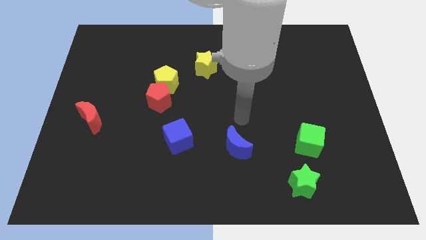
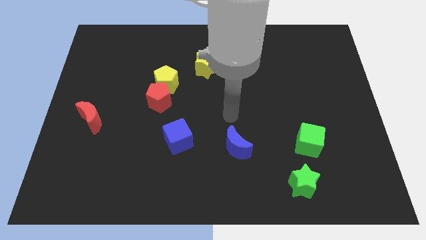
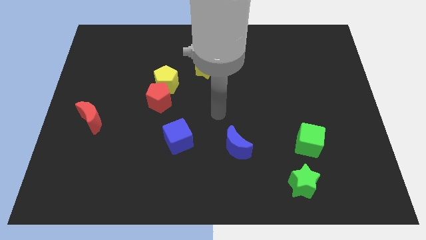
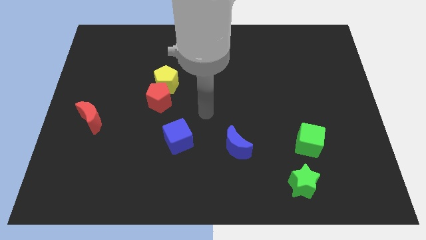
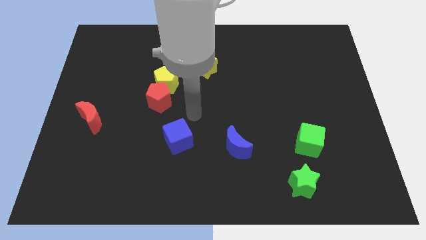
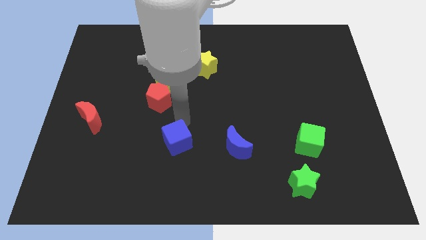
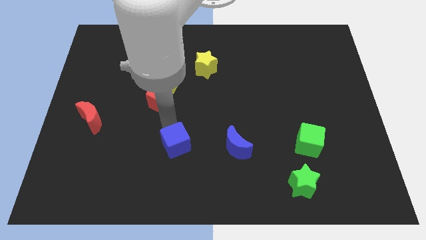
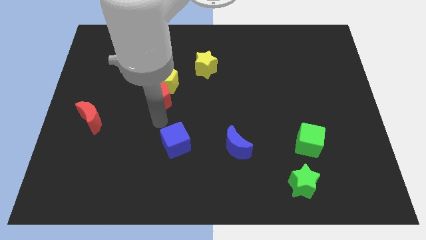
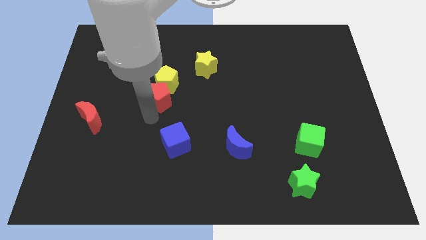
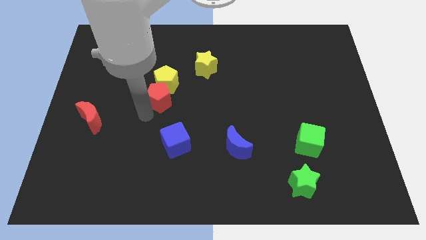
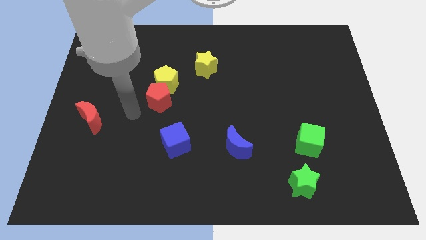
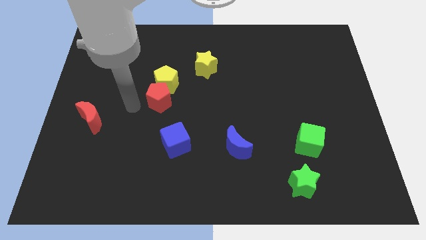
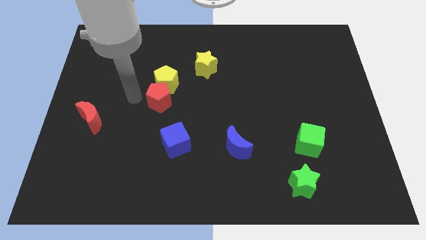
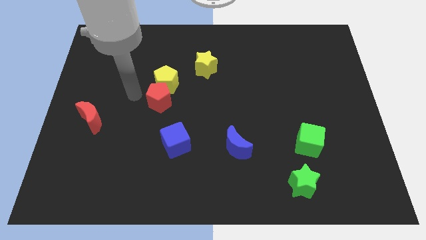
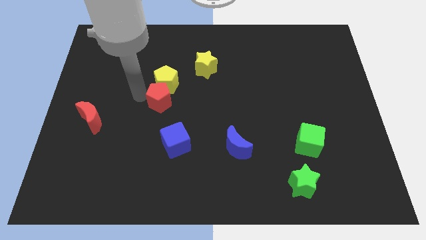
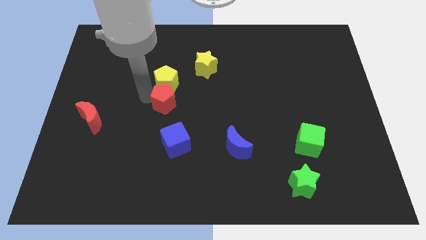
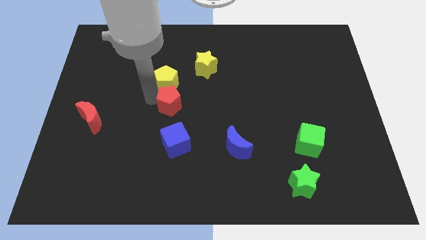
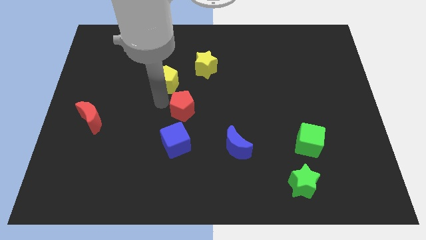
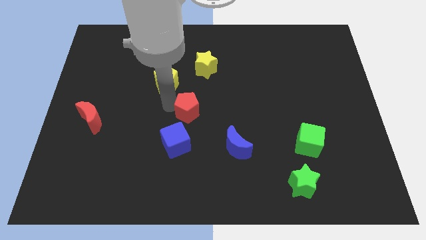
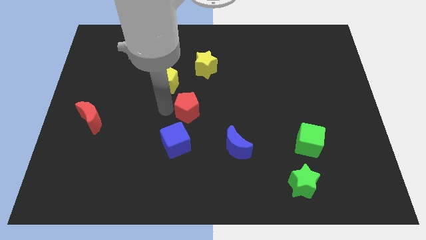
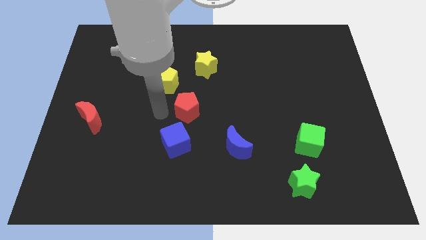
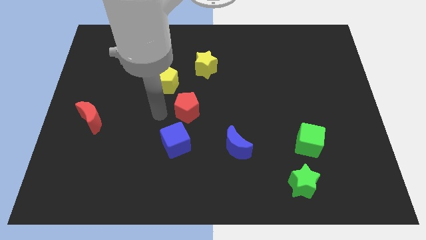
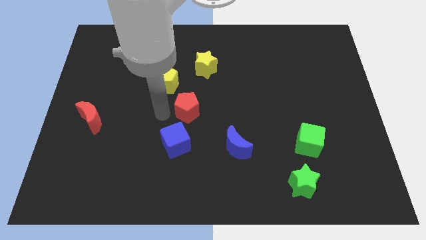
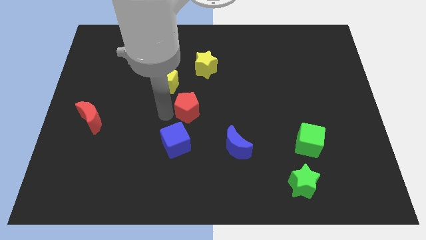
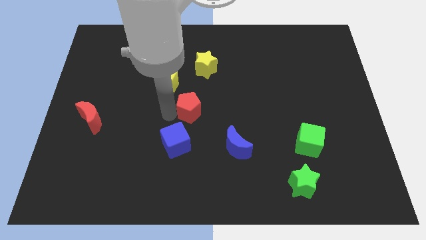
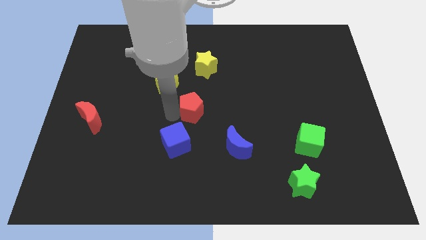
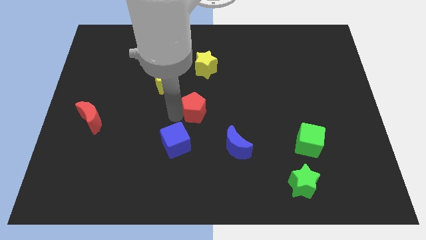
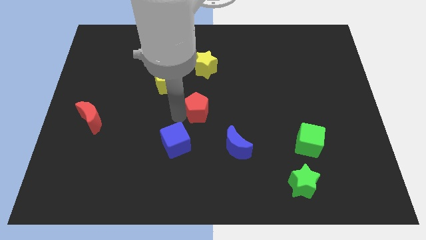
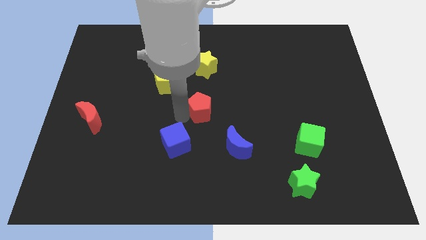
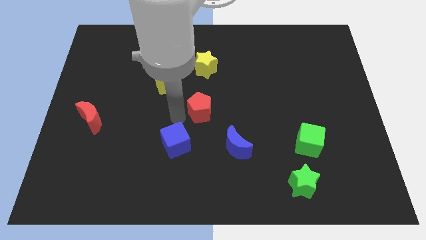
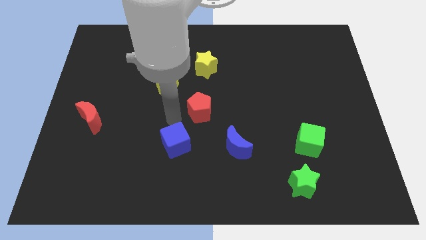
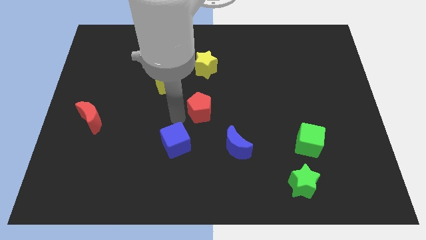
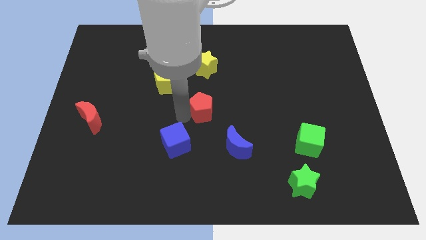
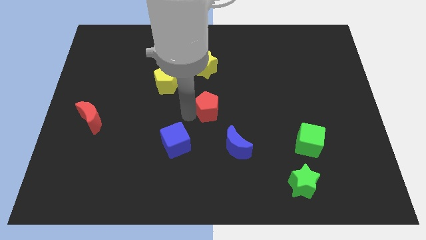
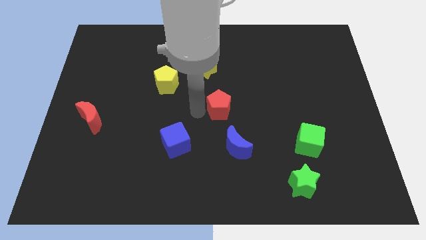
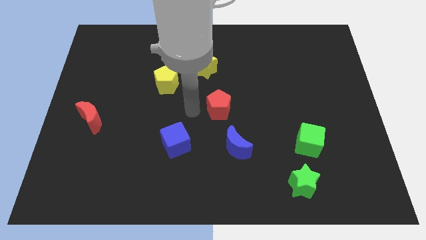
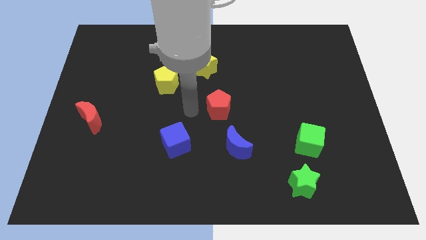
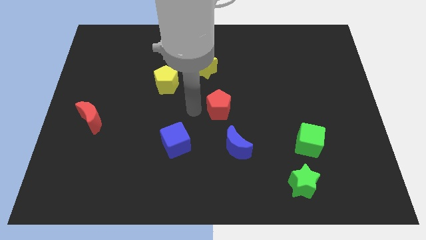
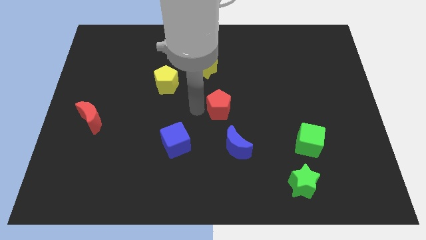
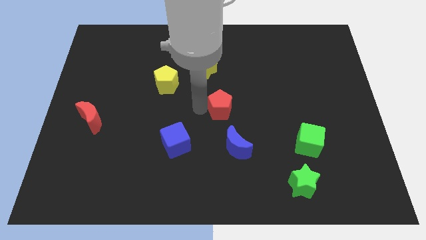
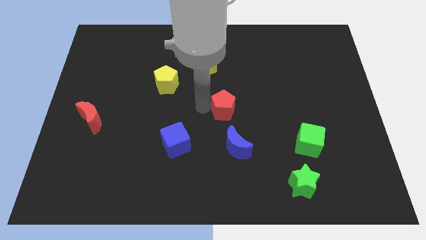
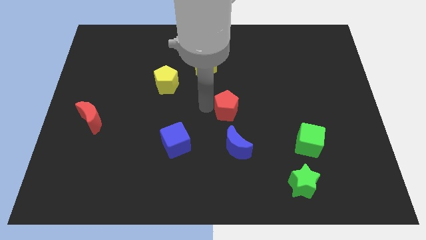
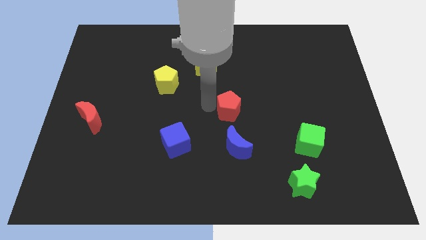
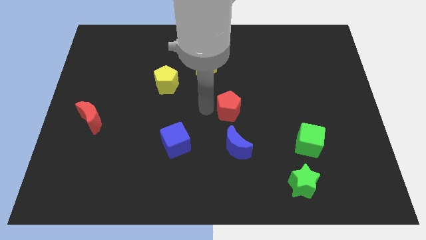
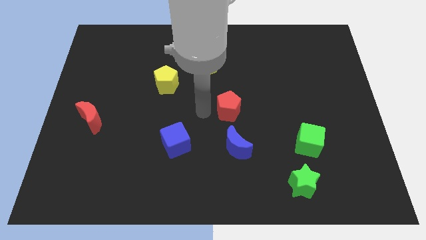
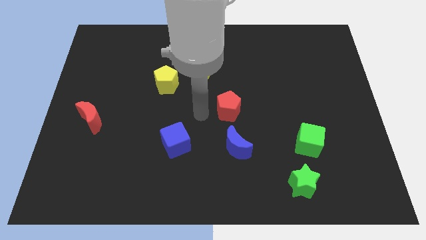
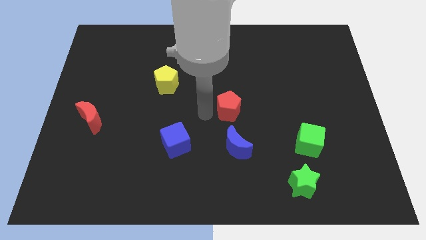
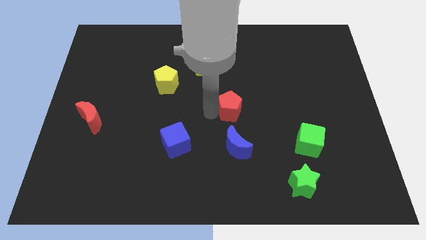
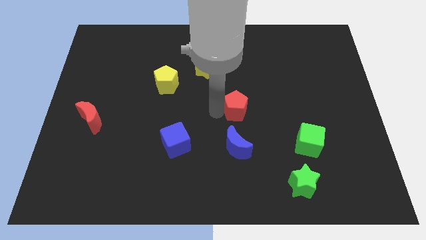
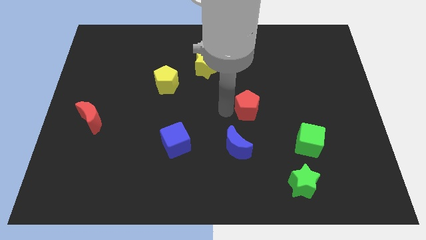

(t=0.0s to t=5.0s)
push the red pentagon to the right

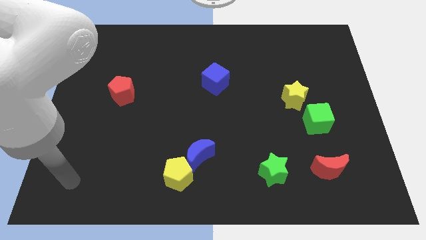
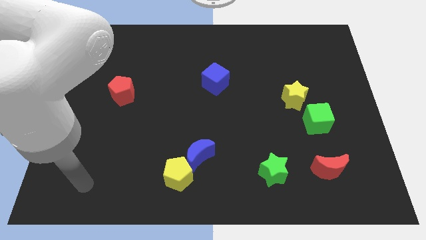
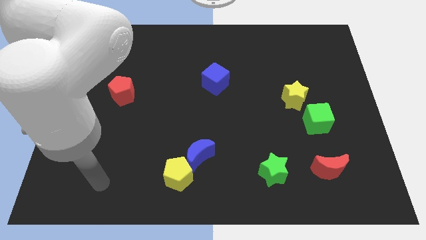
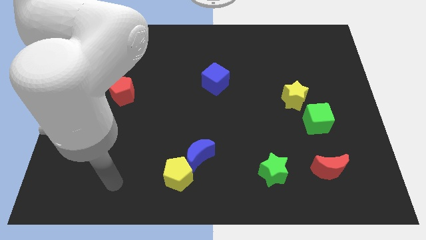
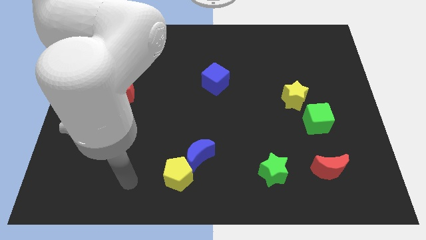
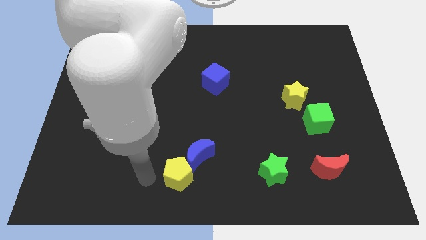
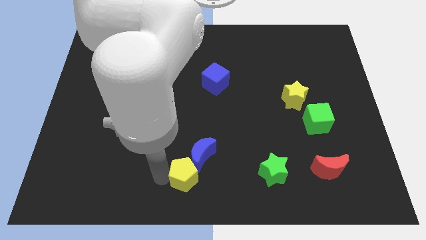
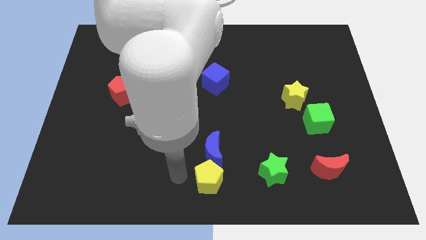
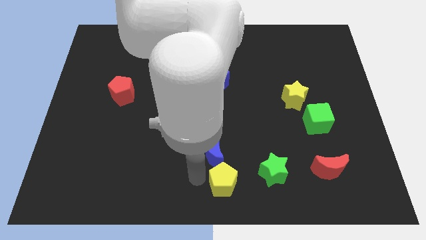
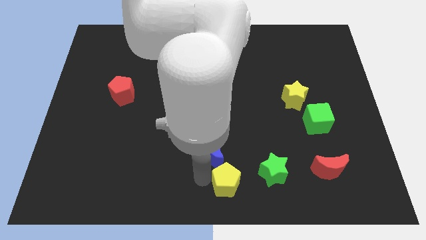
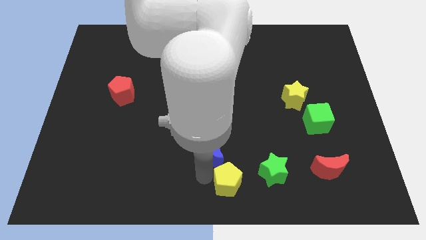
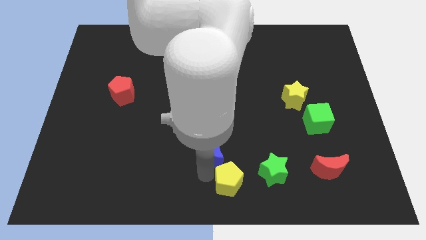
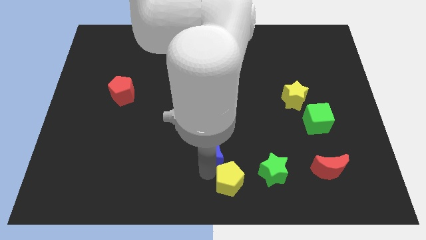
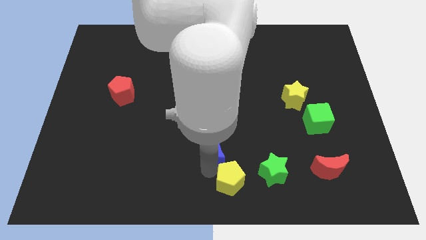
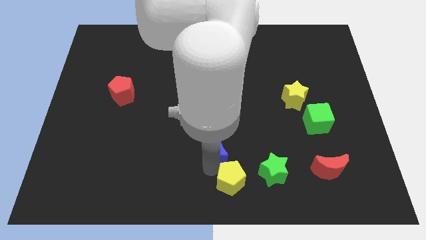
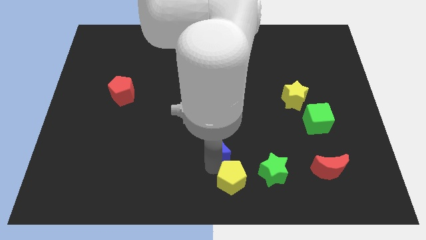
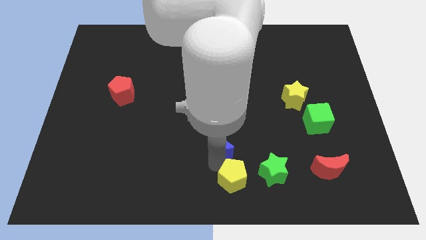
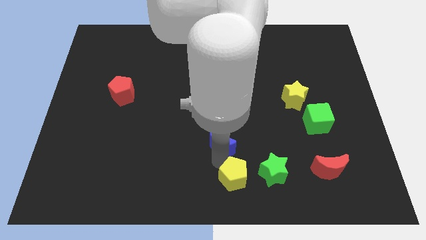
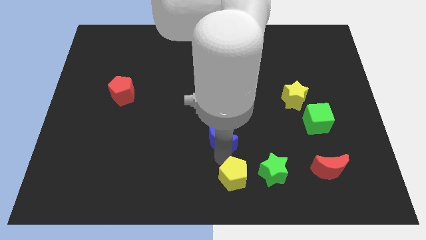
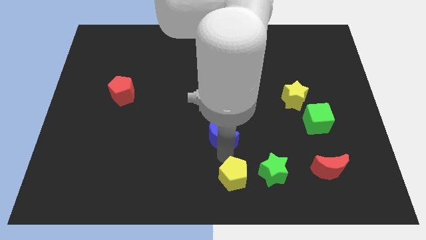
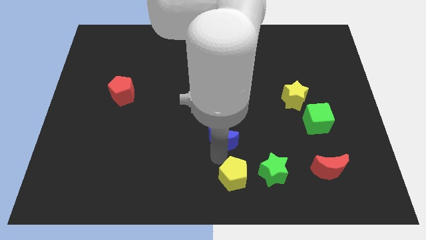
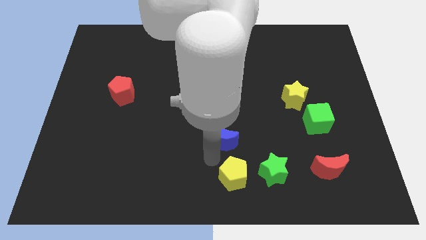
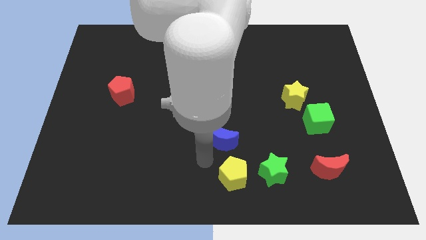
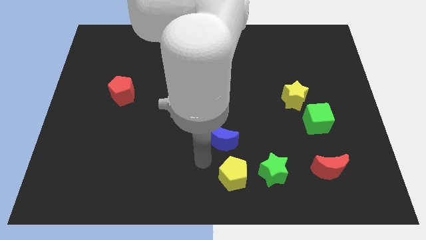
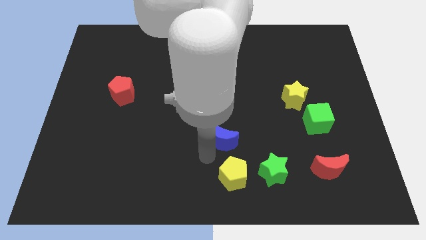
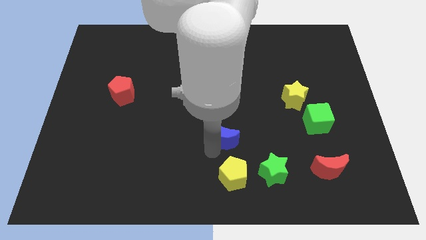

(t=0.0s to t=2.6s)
move the blue moon upwards and then right somewhat
